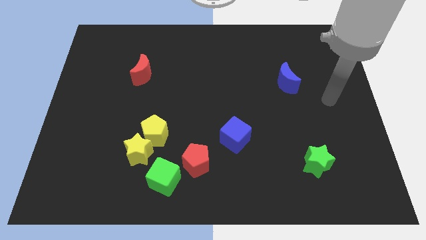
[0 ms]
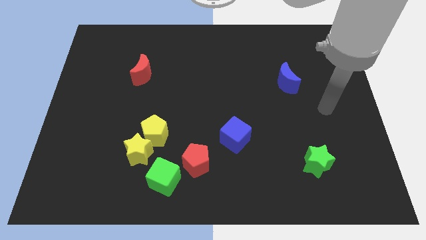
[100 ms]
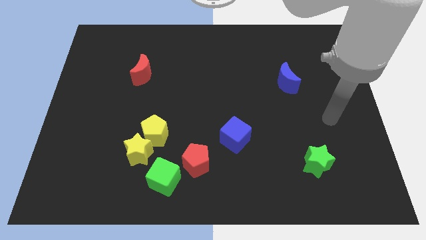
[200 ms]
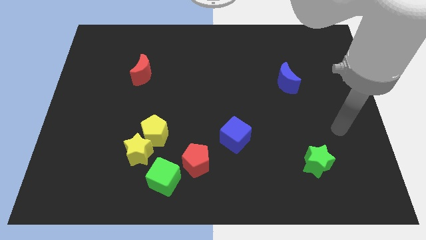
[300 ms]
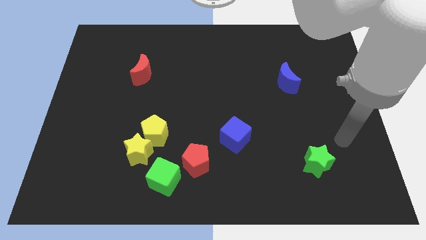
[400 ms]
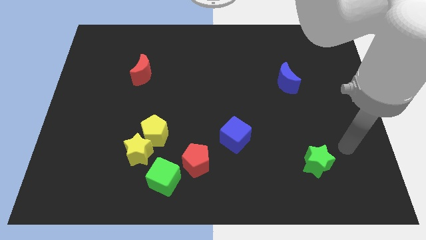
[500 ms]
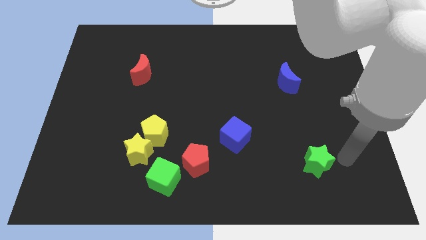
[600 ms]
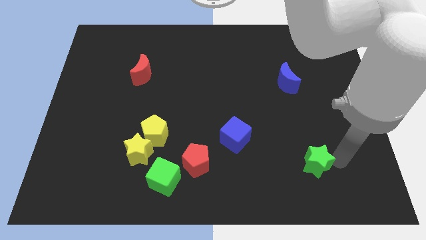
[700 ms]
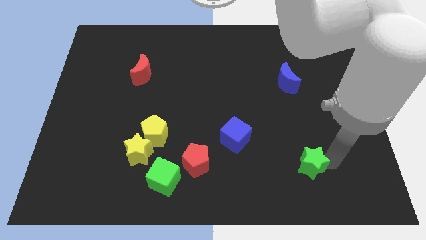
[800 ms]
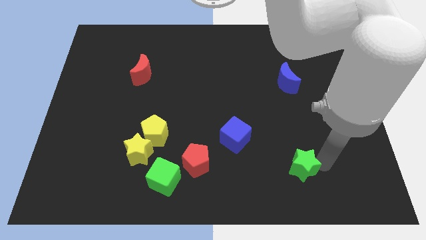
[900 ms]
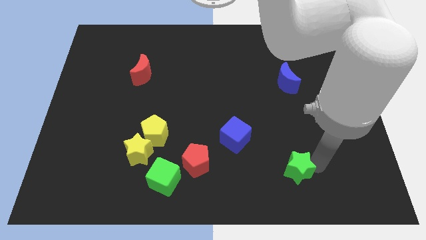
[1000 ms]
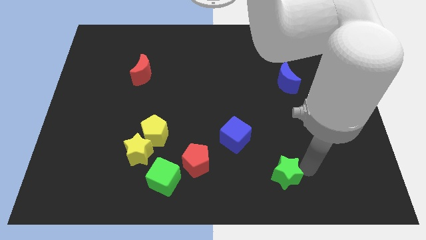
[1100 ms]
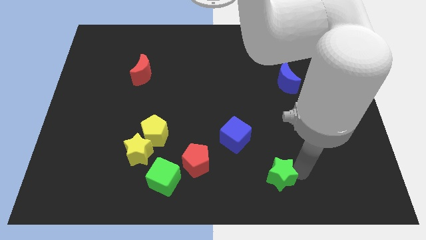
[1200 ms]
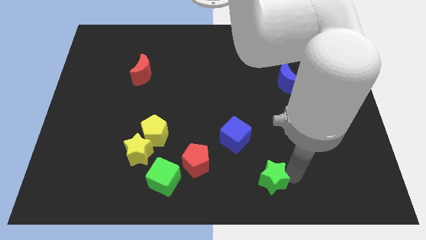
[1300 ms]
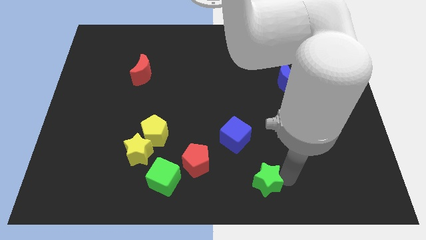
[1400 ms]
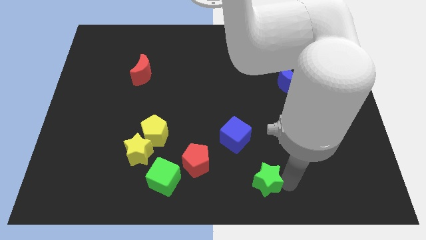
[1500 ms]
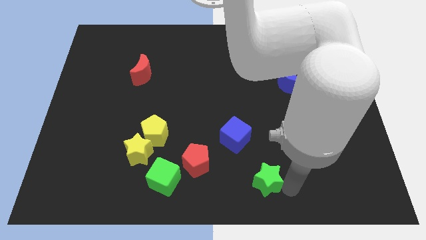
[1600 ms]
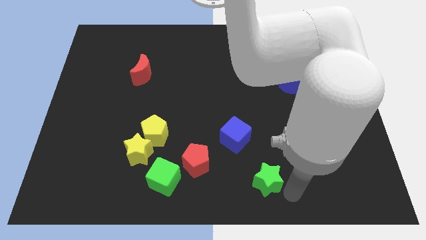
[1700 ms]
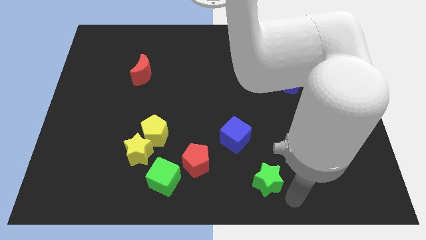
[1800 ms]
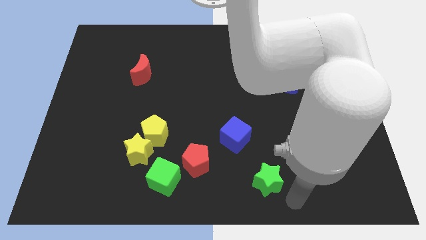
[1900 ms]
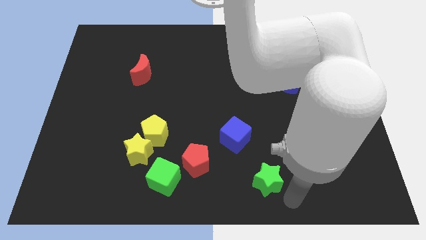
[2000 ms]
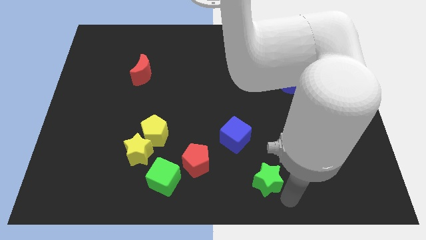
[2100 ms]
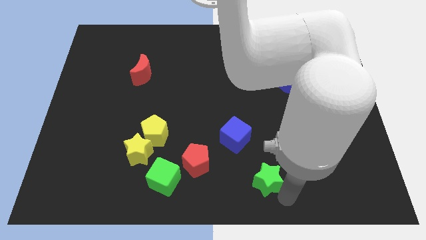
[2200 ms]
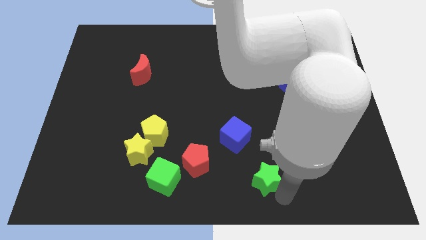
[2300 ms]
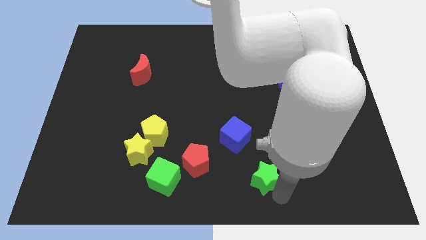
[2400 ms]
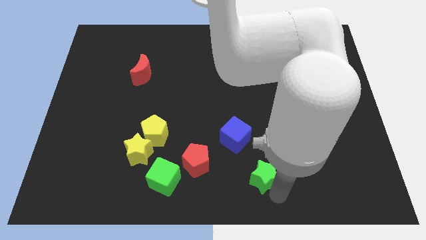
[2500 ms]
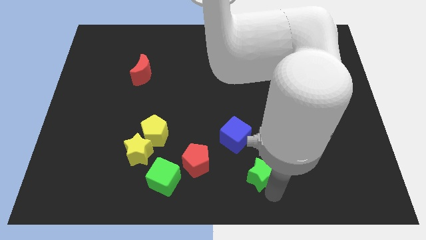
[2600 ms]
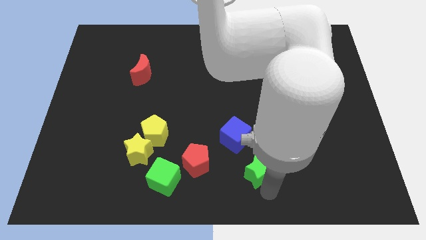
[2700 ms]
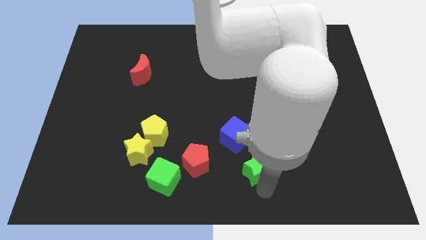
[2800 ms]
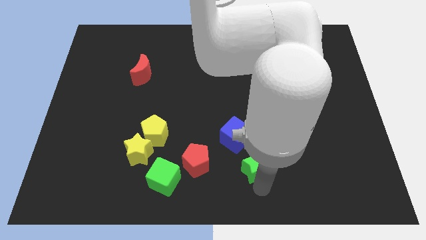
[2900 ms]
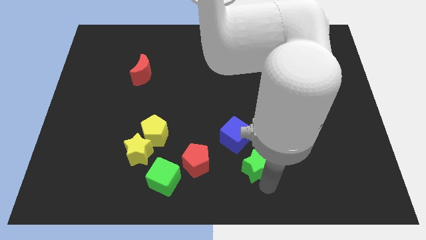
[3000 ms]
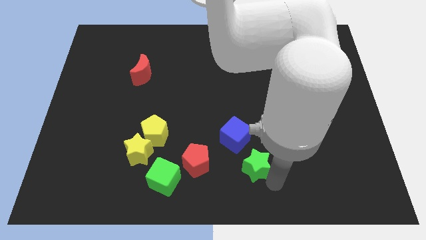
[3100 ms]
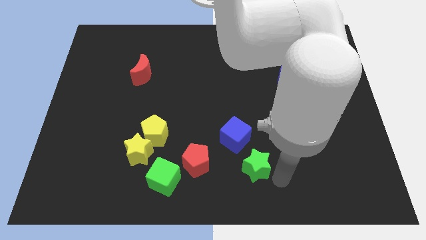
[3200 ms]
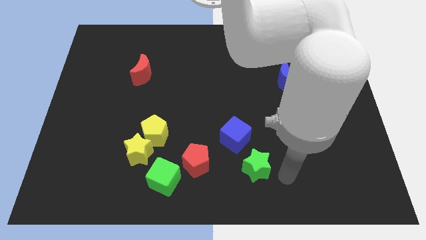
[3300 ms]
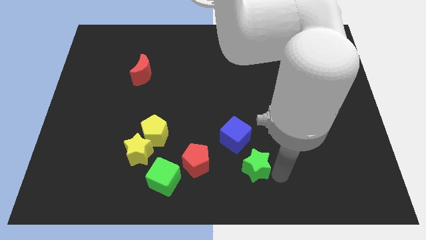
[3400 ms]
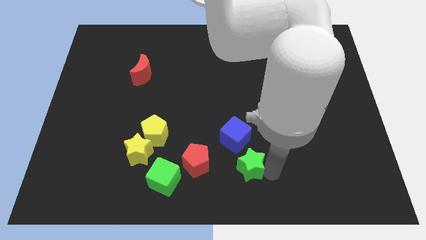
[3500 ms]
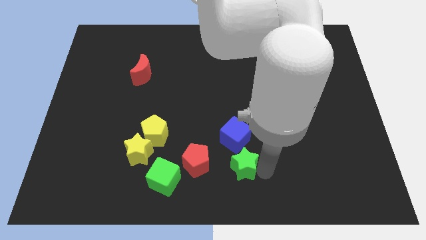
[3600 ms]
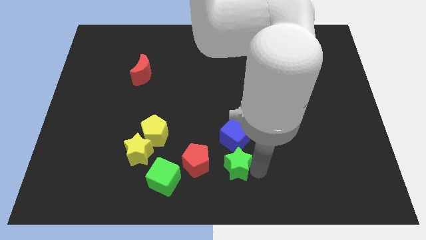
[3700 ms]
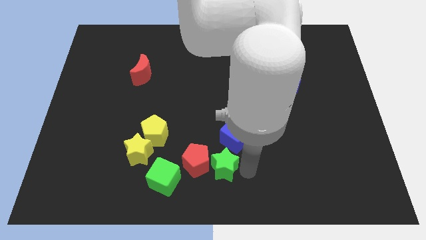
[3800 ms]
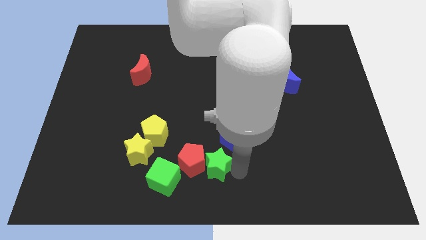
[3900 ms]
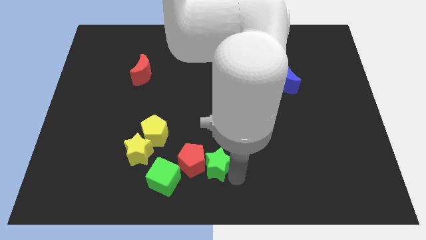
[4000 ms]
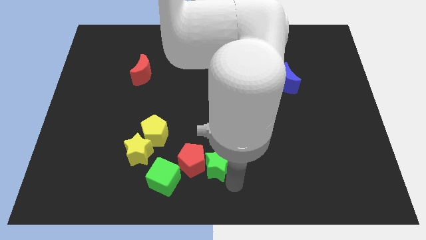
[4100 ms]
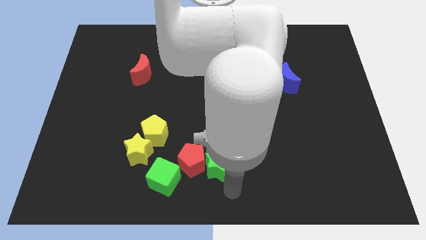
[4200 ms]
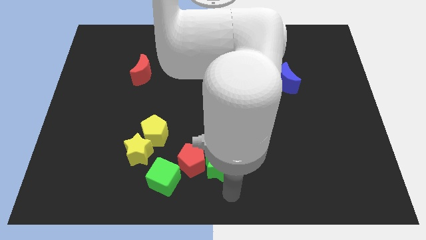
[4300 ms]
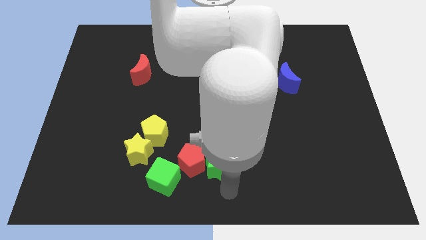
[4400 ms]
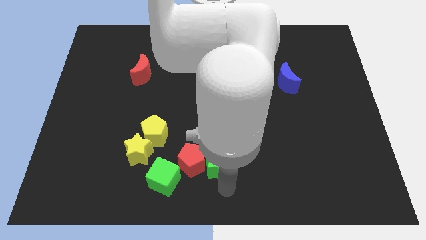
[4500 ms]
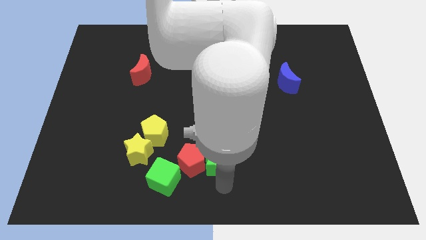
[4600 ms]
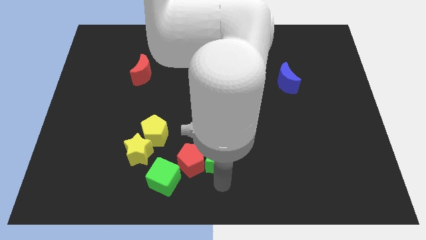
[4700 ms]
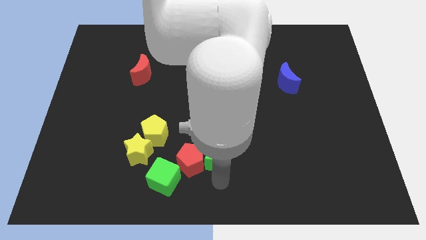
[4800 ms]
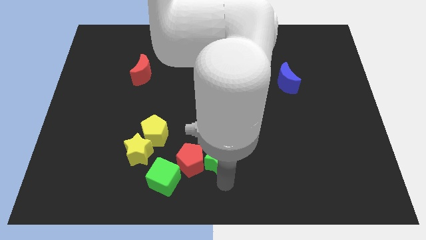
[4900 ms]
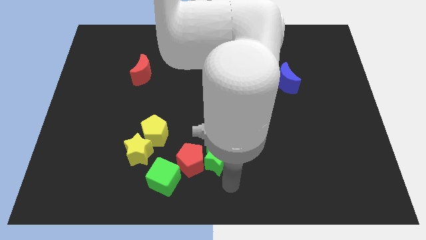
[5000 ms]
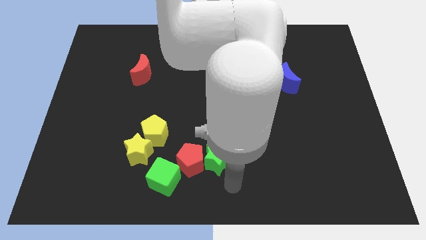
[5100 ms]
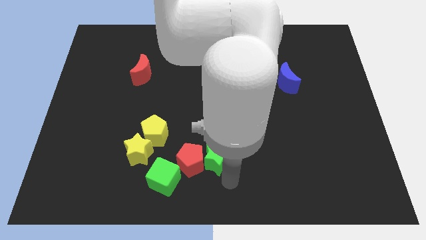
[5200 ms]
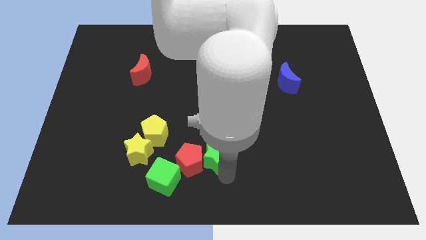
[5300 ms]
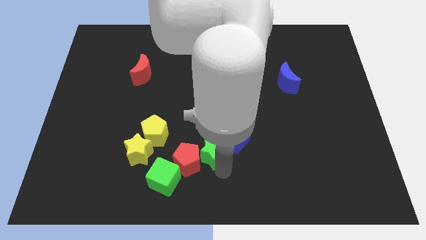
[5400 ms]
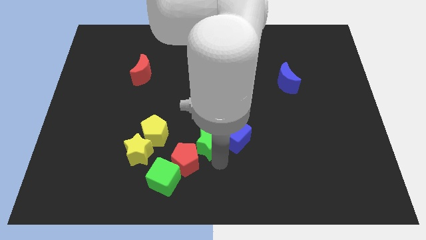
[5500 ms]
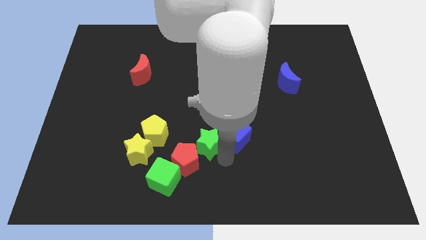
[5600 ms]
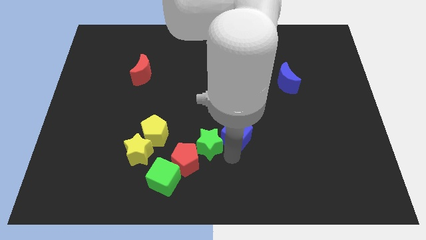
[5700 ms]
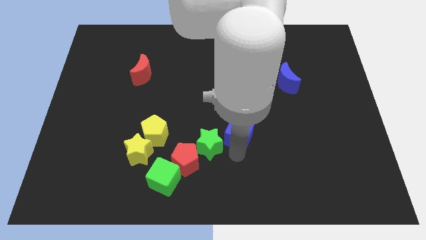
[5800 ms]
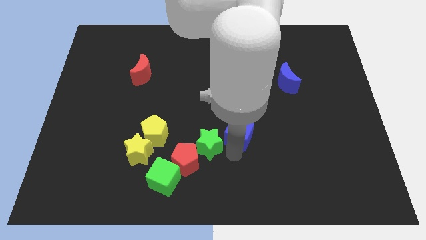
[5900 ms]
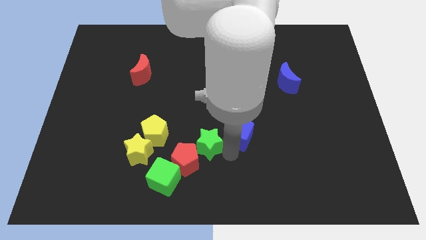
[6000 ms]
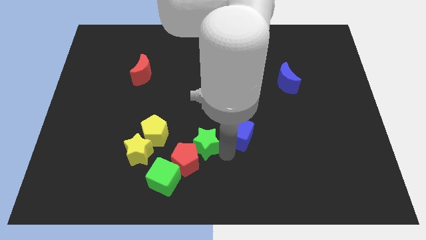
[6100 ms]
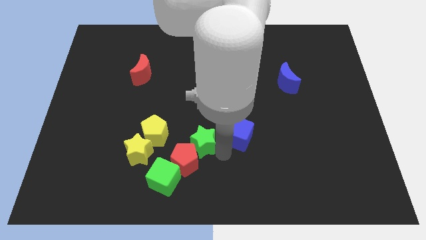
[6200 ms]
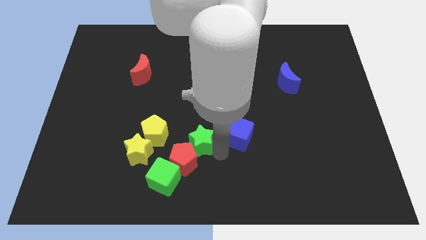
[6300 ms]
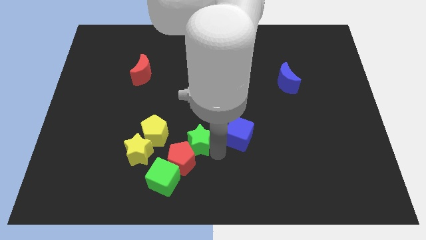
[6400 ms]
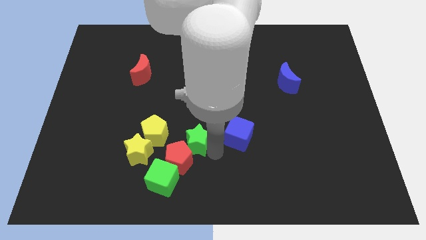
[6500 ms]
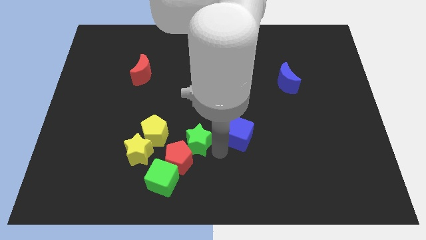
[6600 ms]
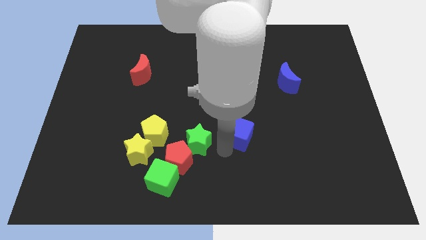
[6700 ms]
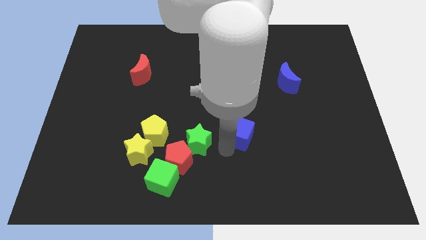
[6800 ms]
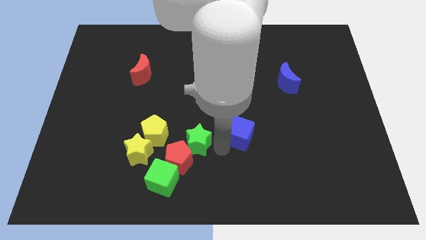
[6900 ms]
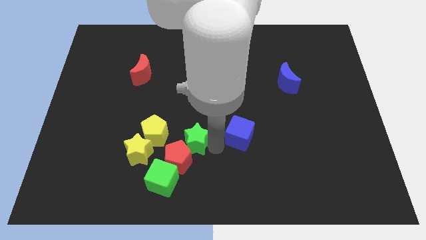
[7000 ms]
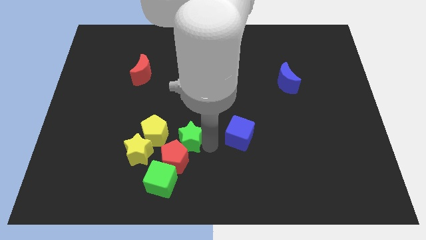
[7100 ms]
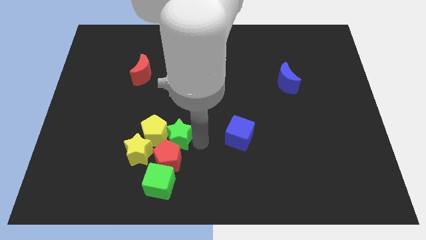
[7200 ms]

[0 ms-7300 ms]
put the green star to the yellow pentagon
